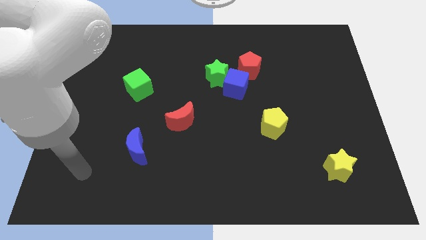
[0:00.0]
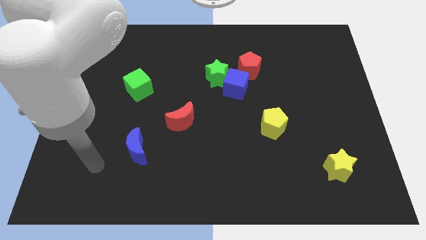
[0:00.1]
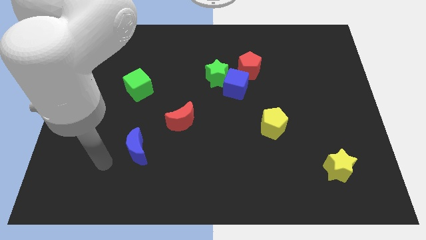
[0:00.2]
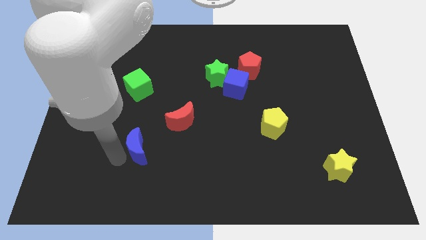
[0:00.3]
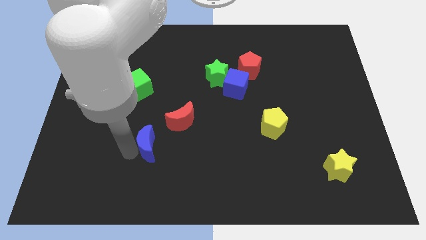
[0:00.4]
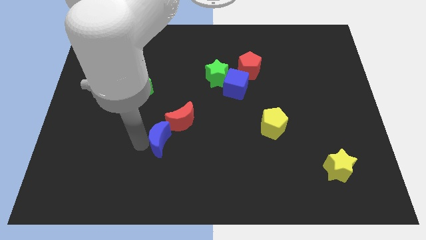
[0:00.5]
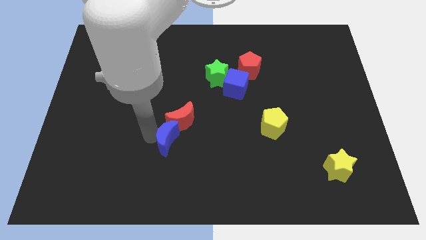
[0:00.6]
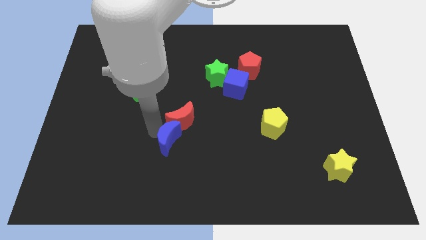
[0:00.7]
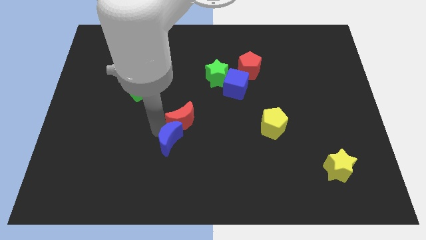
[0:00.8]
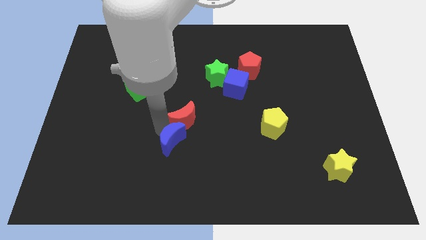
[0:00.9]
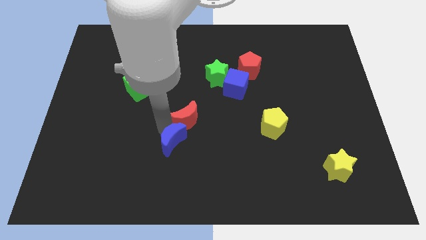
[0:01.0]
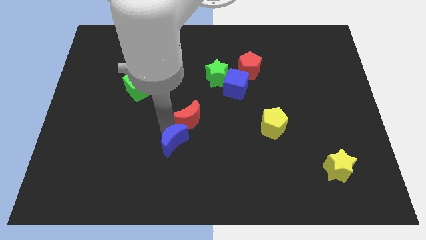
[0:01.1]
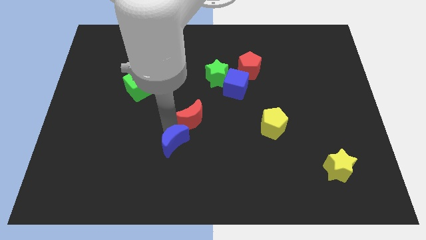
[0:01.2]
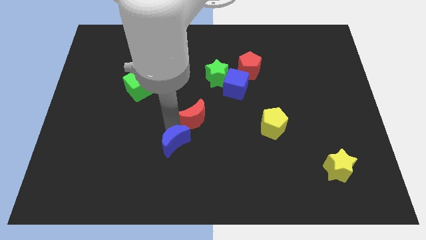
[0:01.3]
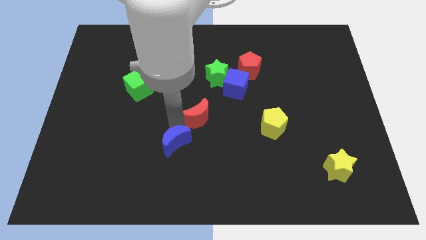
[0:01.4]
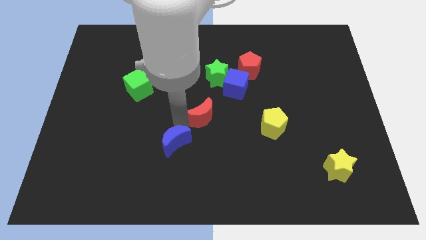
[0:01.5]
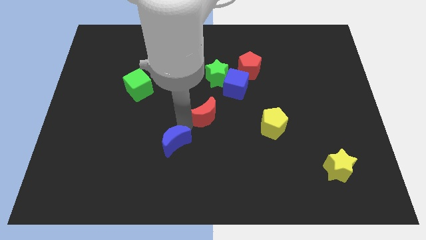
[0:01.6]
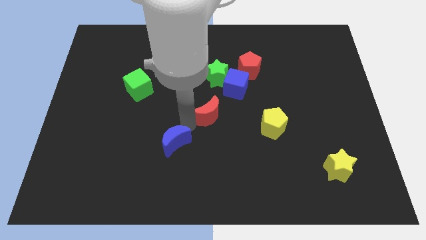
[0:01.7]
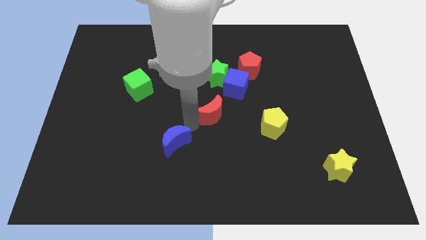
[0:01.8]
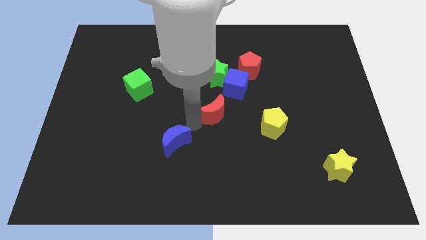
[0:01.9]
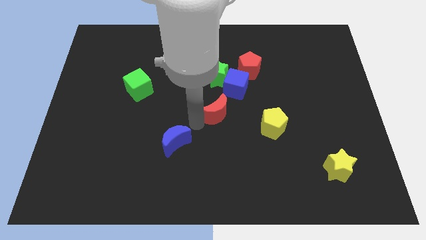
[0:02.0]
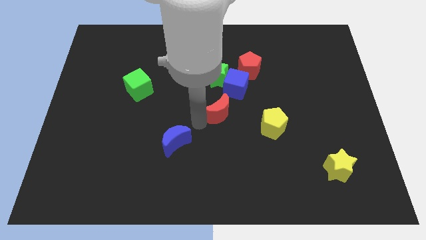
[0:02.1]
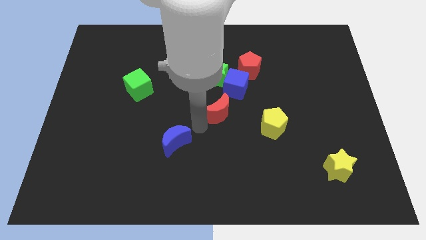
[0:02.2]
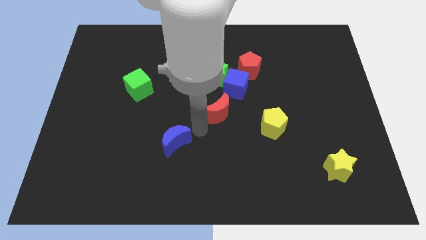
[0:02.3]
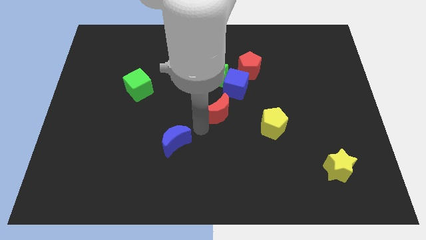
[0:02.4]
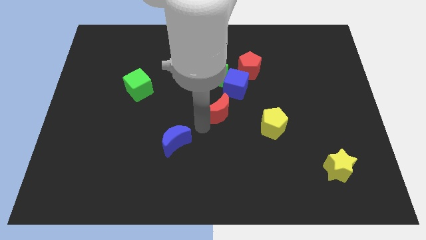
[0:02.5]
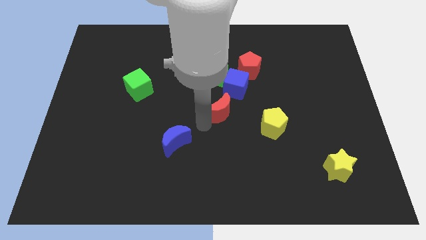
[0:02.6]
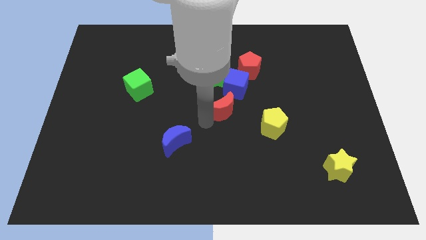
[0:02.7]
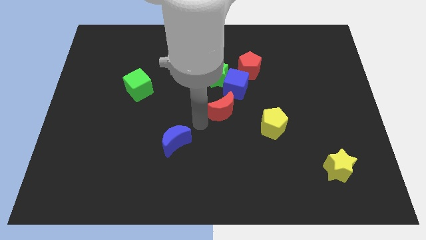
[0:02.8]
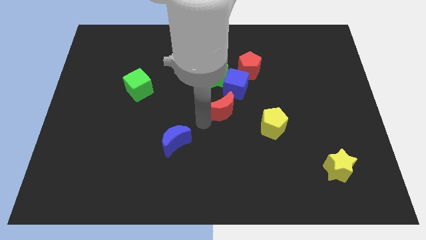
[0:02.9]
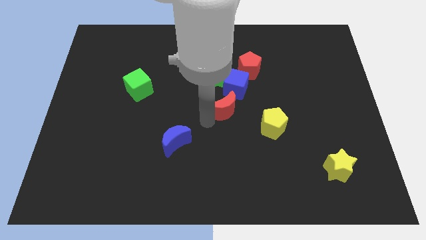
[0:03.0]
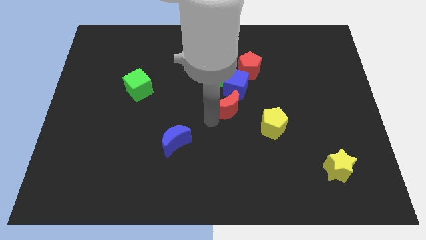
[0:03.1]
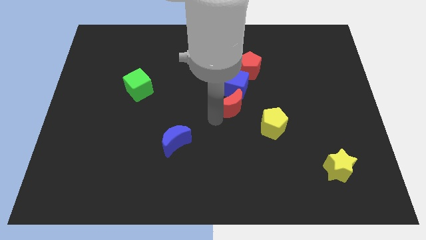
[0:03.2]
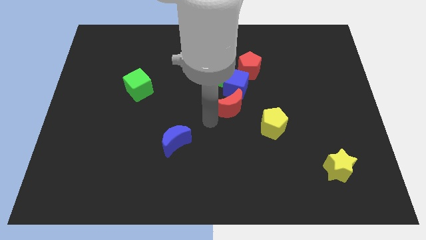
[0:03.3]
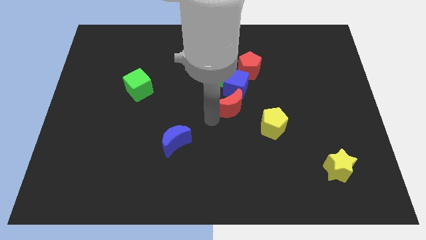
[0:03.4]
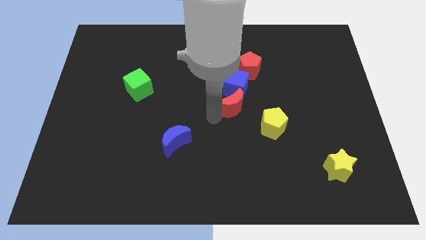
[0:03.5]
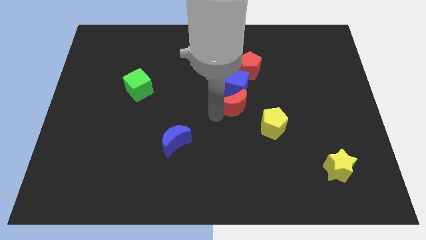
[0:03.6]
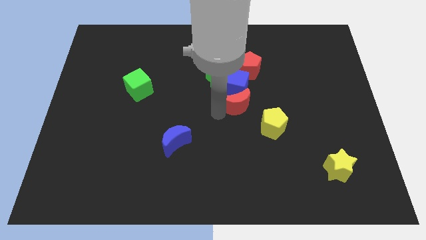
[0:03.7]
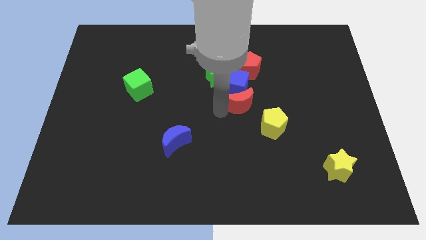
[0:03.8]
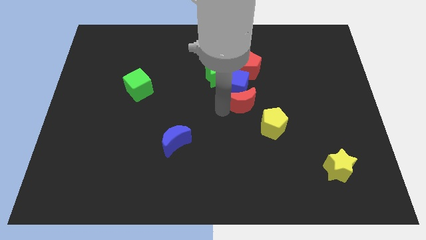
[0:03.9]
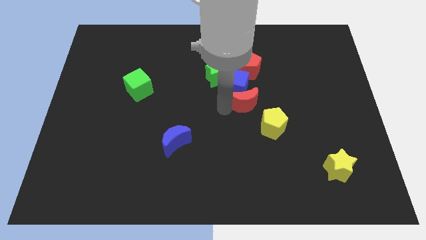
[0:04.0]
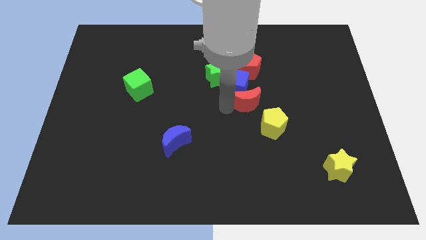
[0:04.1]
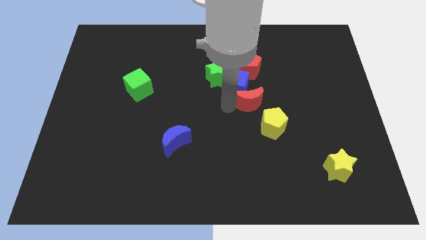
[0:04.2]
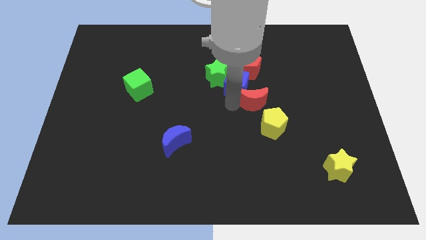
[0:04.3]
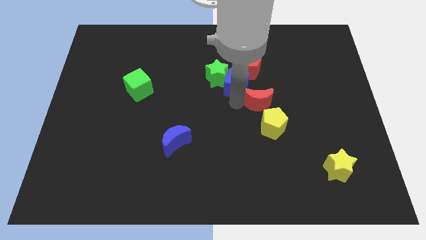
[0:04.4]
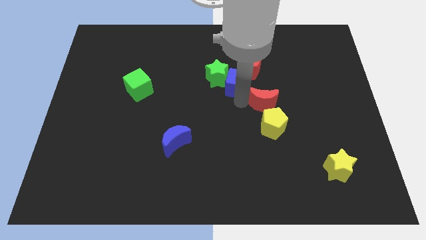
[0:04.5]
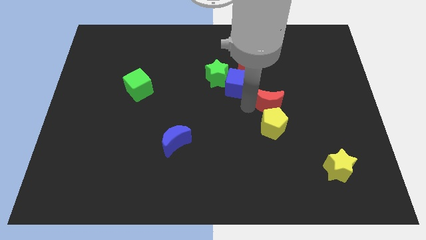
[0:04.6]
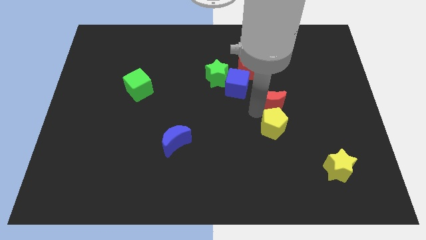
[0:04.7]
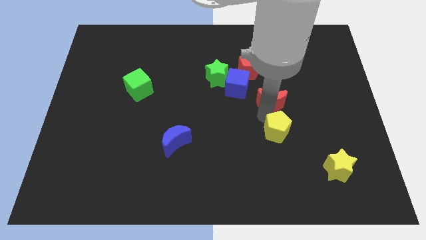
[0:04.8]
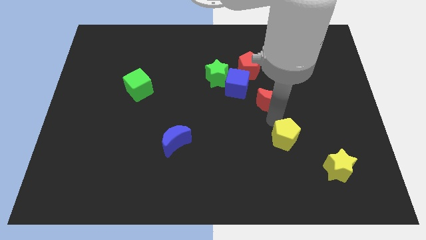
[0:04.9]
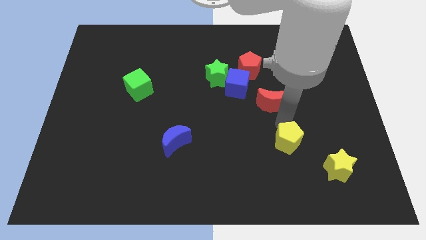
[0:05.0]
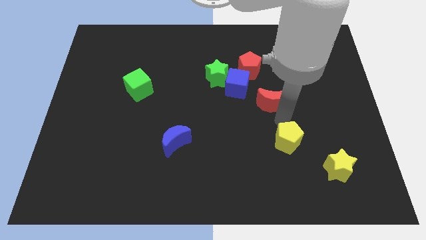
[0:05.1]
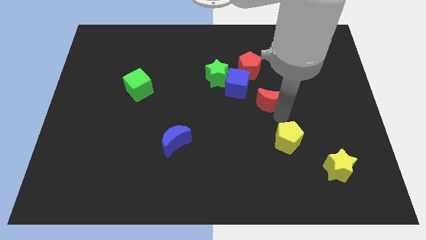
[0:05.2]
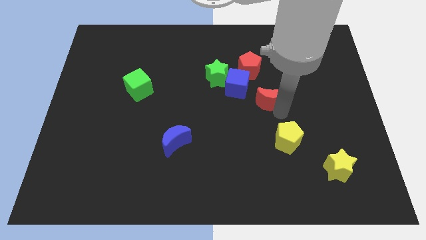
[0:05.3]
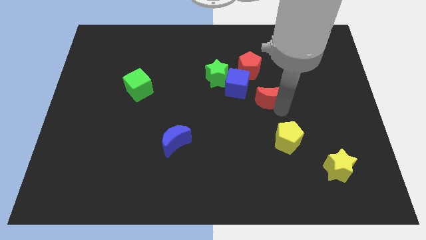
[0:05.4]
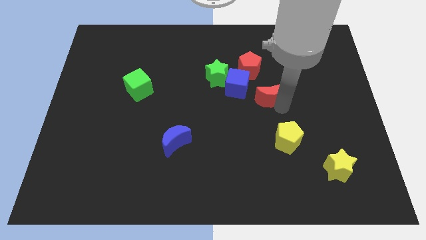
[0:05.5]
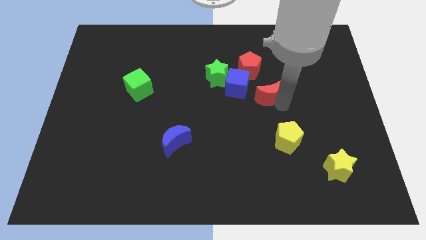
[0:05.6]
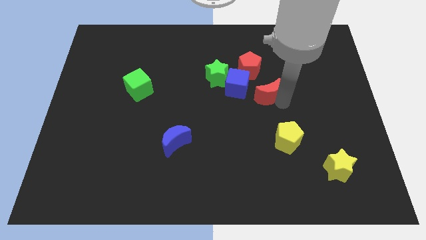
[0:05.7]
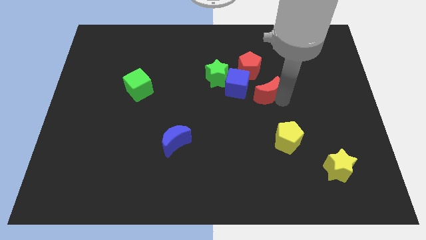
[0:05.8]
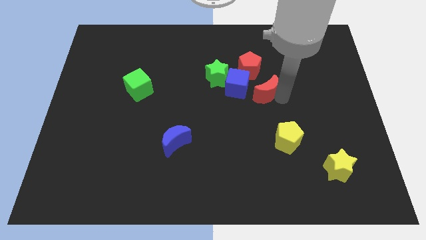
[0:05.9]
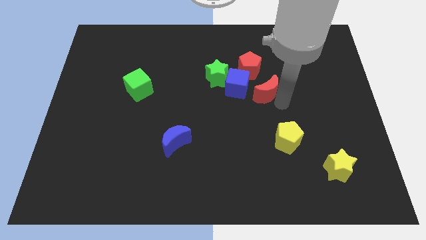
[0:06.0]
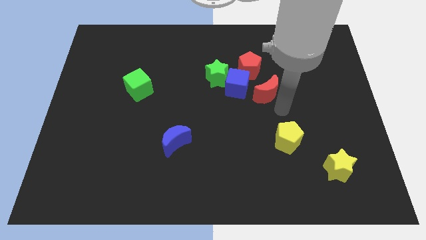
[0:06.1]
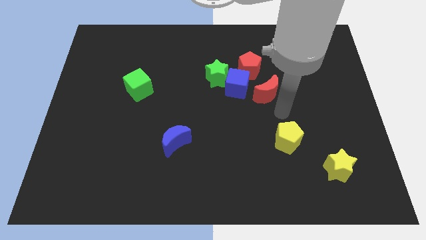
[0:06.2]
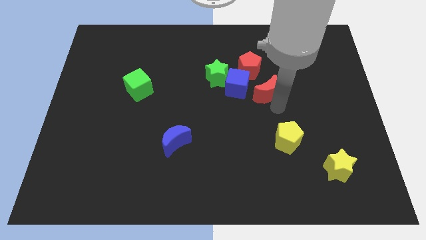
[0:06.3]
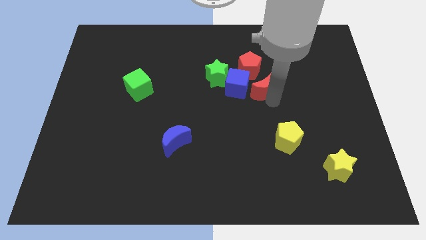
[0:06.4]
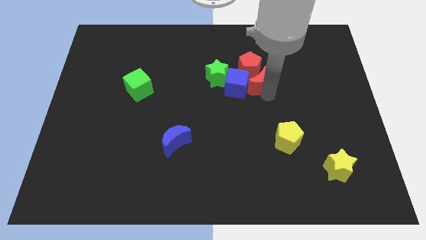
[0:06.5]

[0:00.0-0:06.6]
move the red moon to the red pentagon
